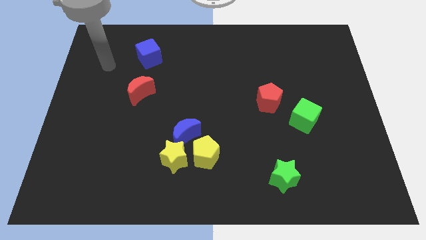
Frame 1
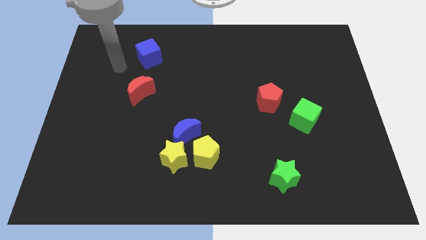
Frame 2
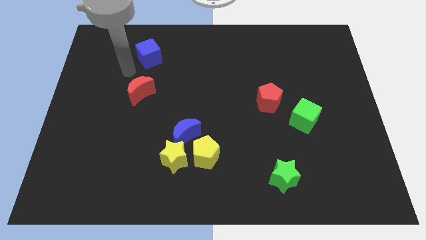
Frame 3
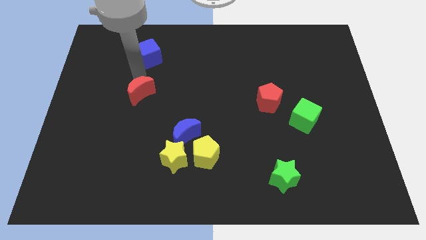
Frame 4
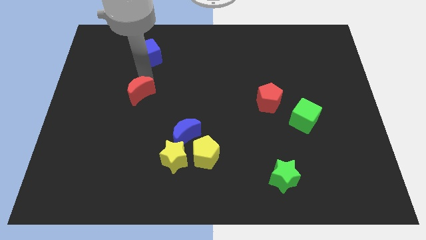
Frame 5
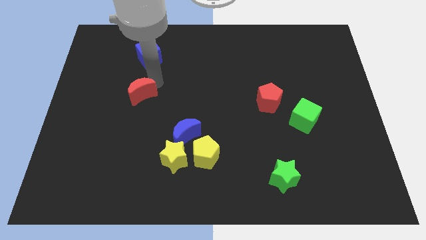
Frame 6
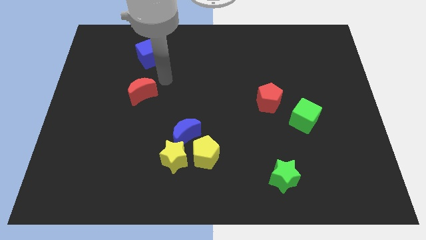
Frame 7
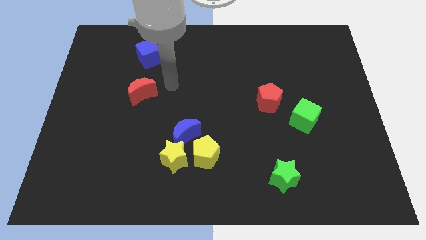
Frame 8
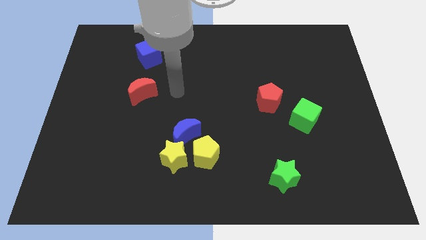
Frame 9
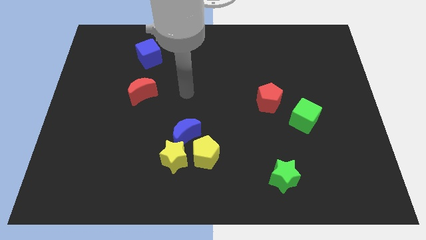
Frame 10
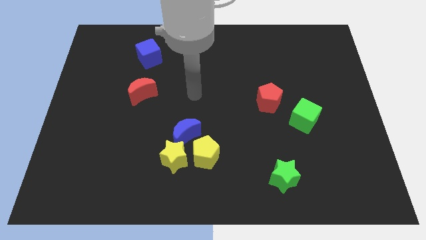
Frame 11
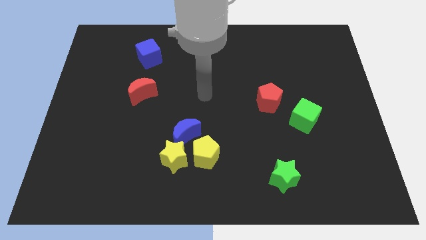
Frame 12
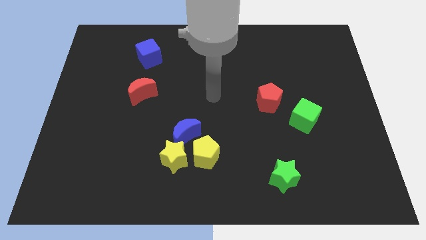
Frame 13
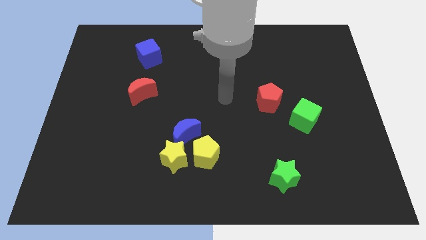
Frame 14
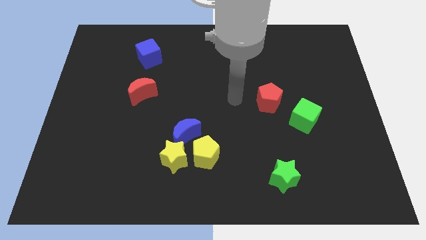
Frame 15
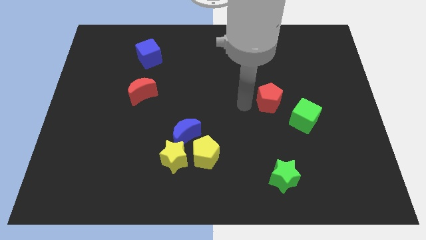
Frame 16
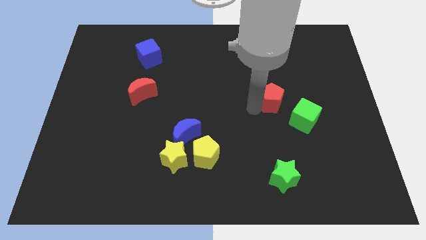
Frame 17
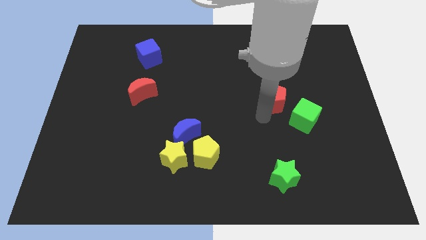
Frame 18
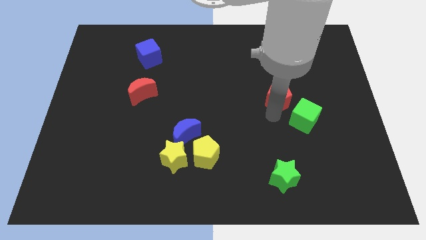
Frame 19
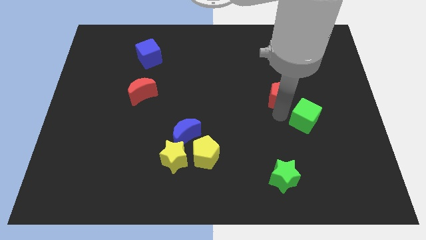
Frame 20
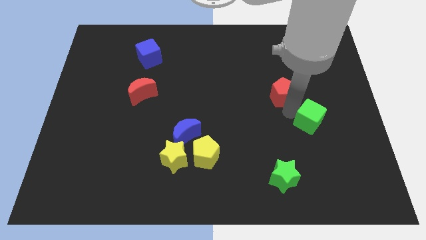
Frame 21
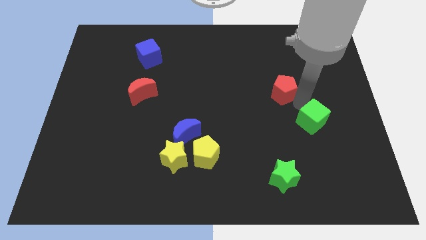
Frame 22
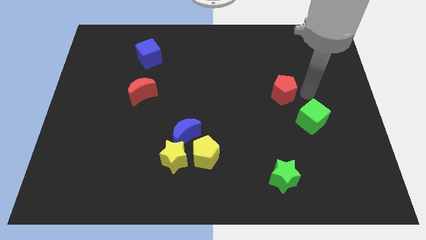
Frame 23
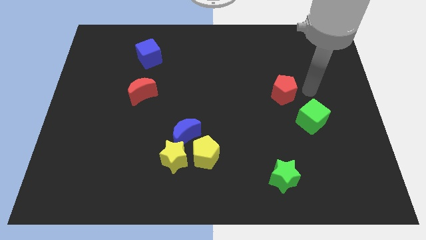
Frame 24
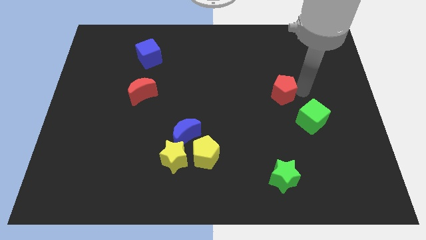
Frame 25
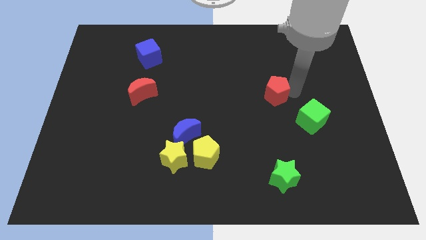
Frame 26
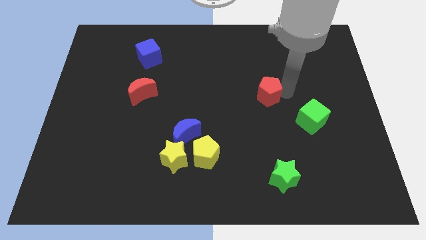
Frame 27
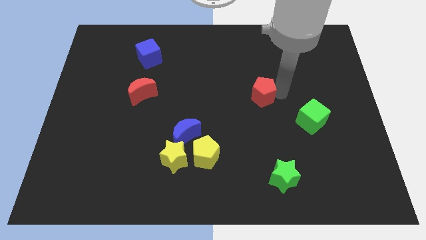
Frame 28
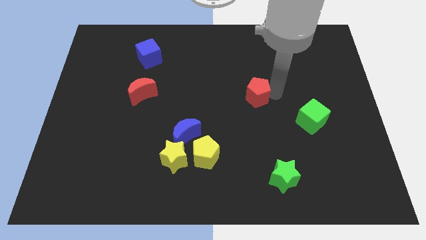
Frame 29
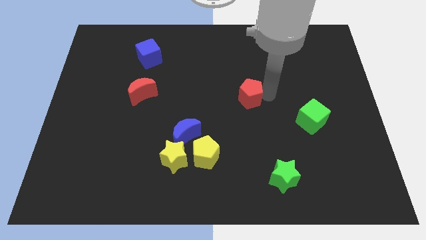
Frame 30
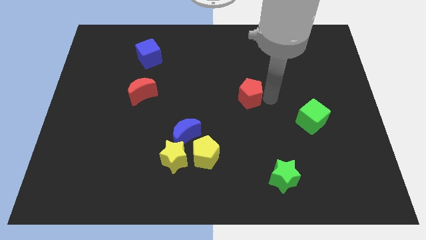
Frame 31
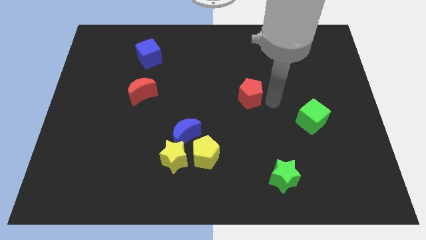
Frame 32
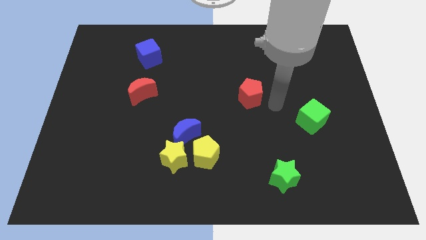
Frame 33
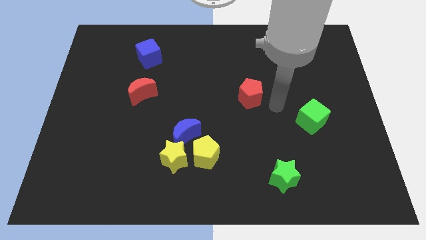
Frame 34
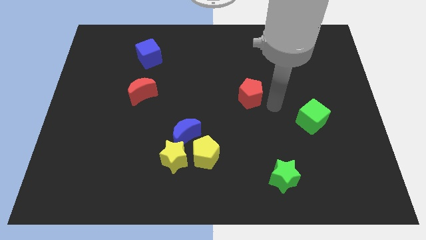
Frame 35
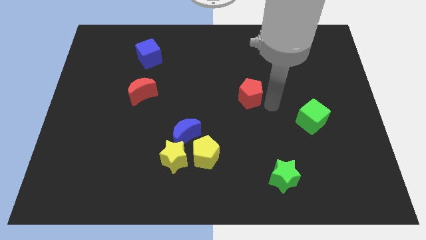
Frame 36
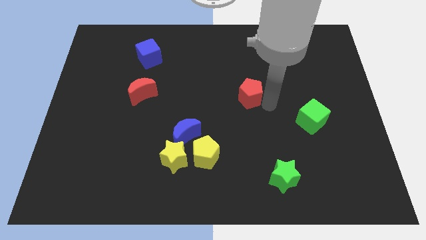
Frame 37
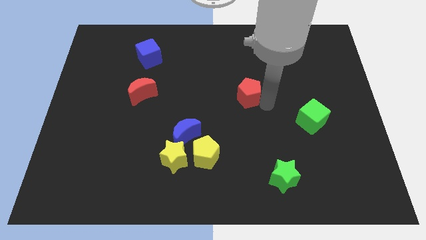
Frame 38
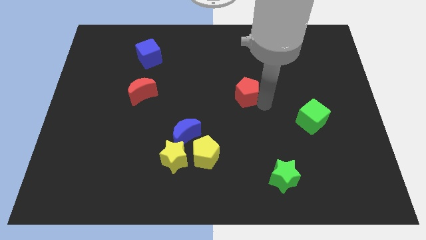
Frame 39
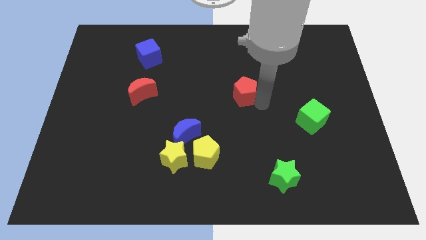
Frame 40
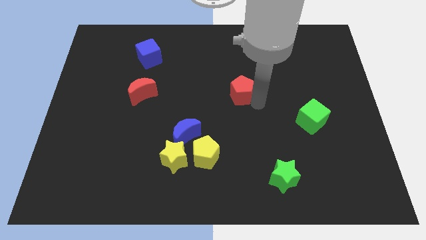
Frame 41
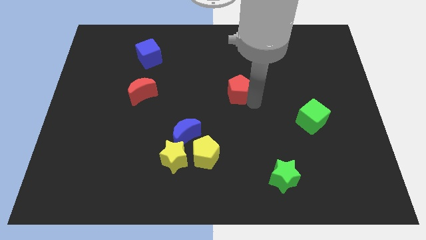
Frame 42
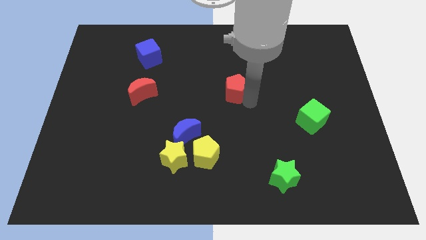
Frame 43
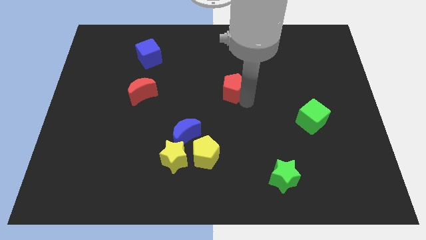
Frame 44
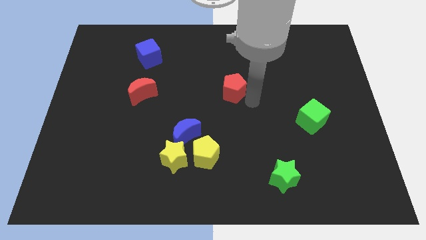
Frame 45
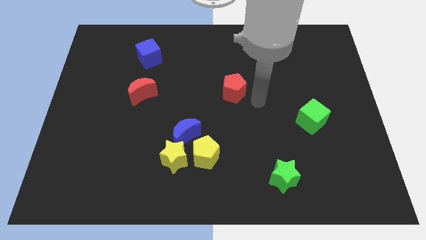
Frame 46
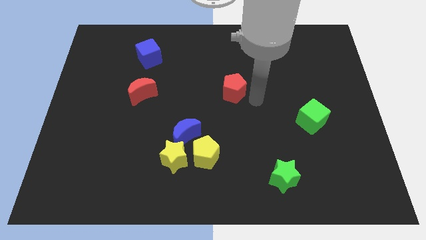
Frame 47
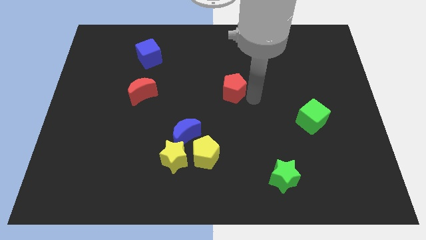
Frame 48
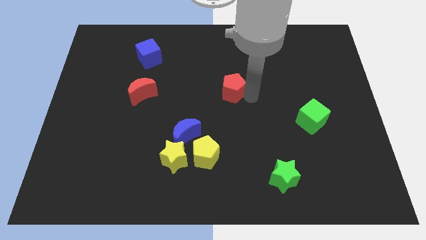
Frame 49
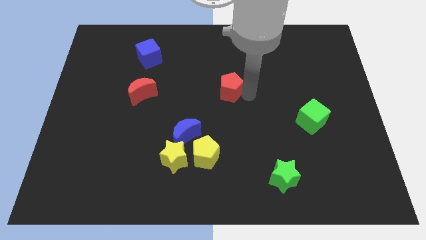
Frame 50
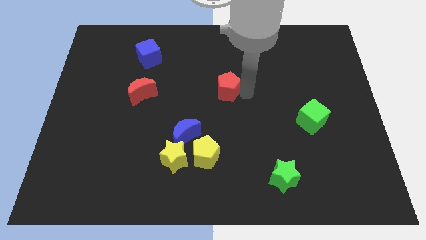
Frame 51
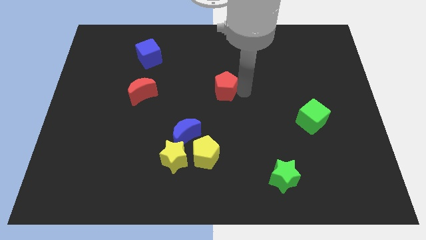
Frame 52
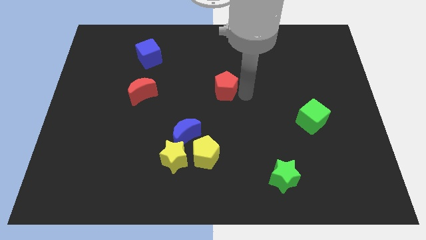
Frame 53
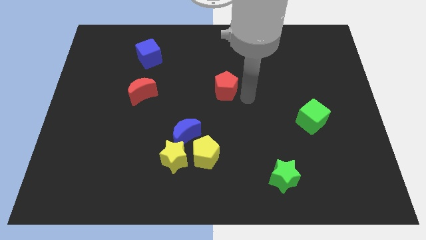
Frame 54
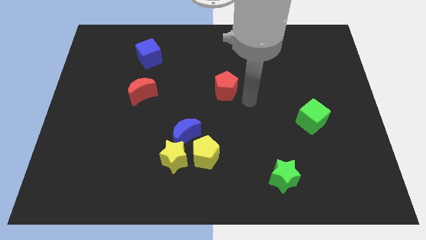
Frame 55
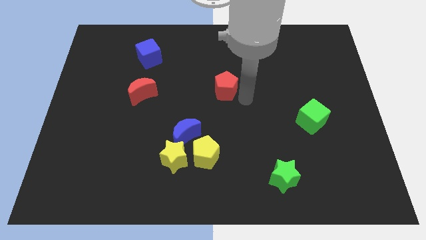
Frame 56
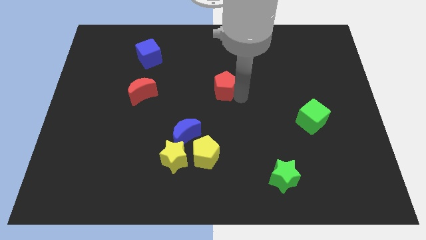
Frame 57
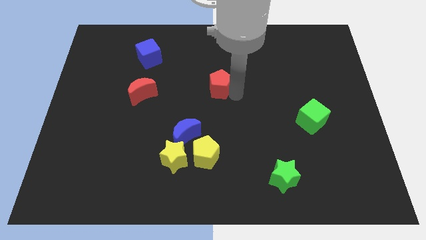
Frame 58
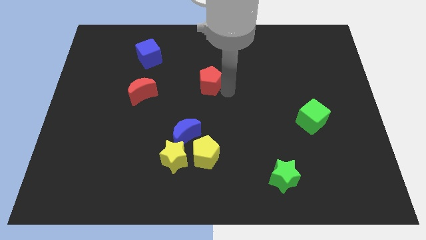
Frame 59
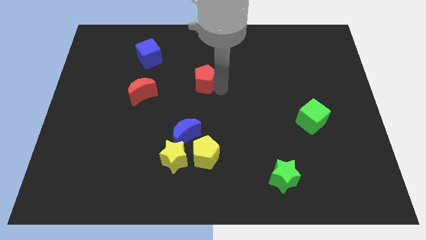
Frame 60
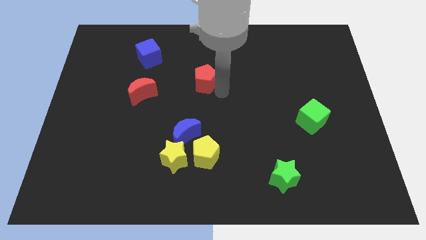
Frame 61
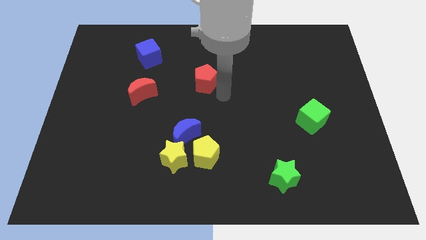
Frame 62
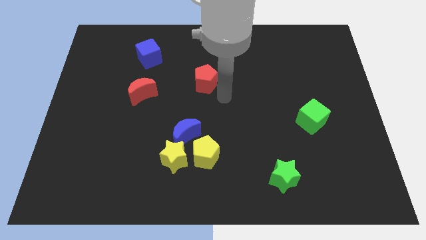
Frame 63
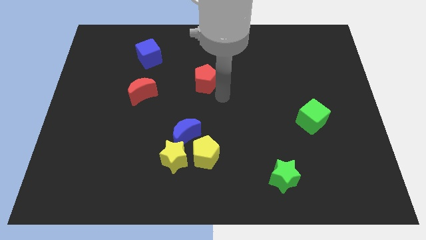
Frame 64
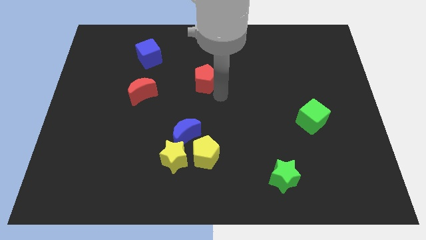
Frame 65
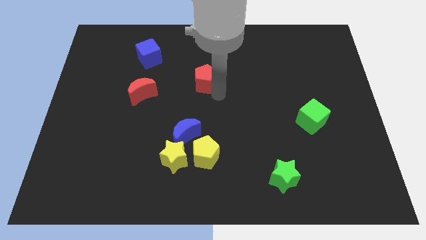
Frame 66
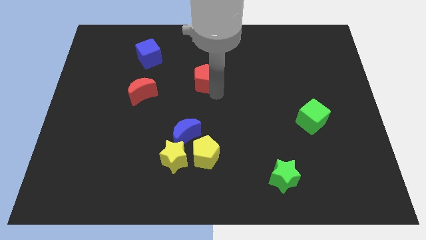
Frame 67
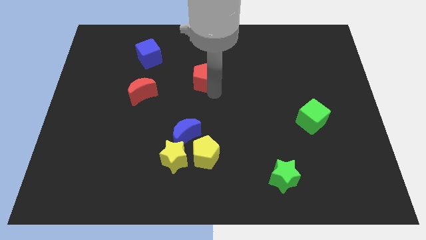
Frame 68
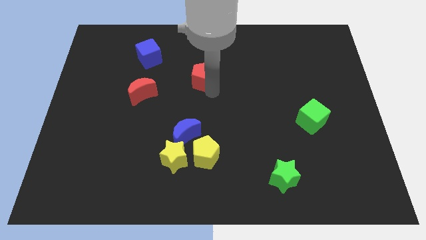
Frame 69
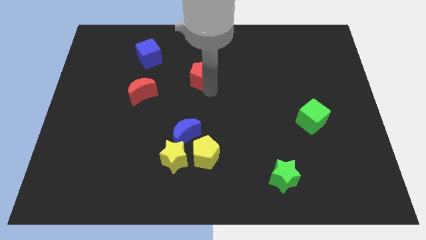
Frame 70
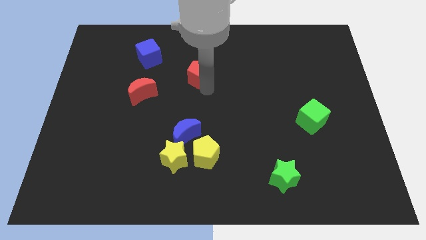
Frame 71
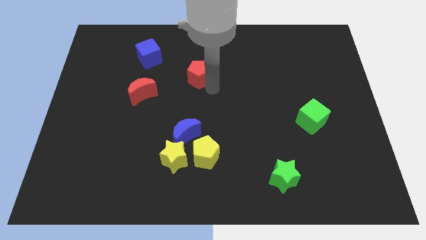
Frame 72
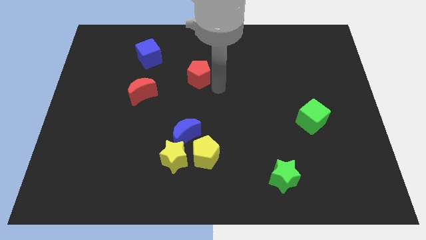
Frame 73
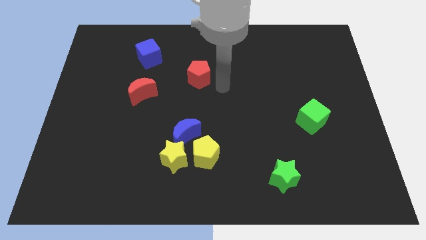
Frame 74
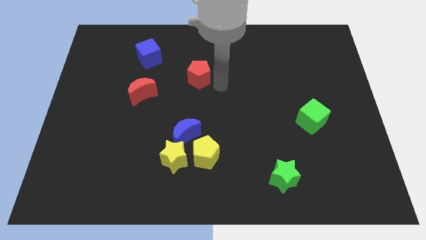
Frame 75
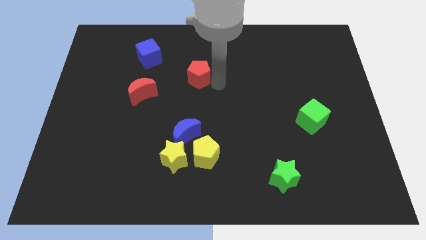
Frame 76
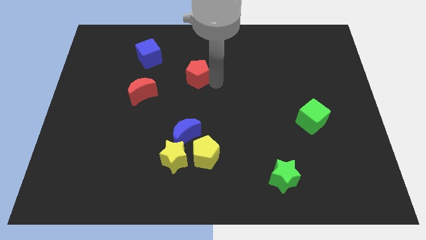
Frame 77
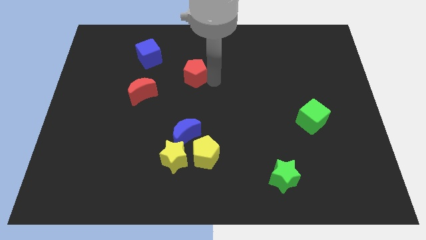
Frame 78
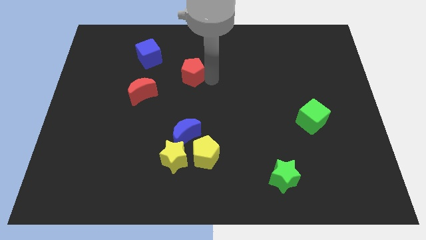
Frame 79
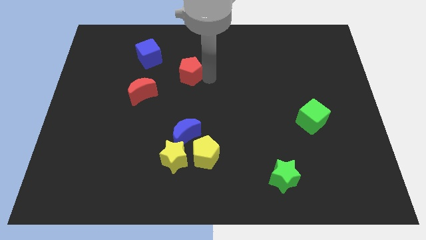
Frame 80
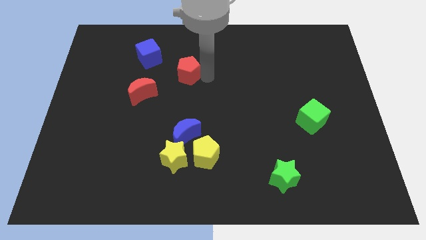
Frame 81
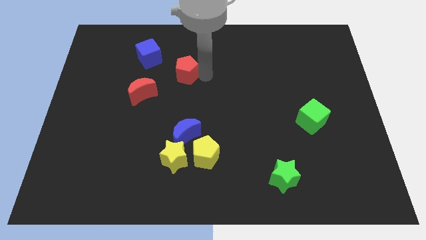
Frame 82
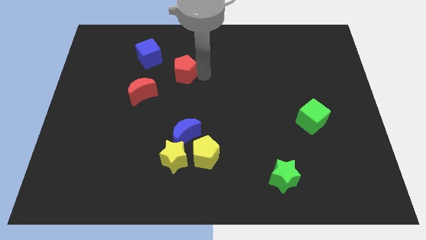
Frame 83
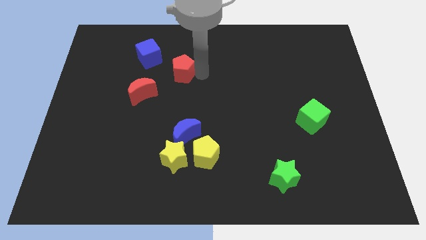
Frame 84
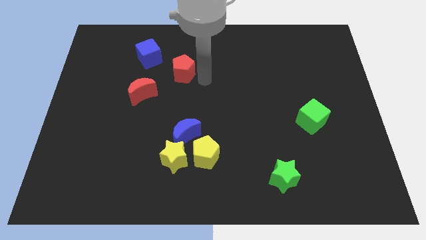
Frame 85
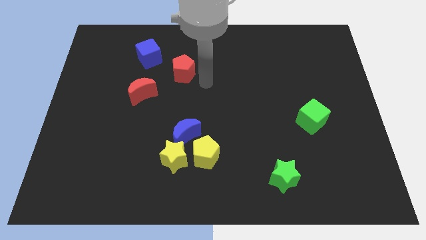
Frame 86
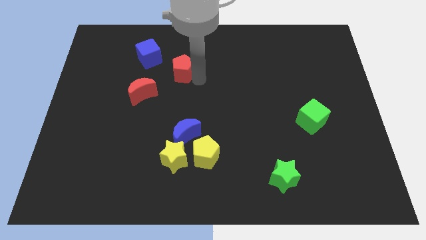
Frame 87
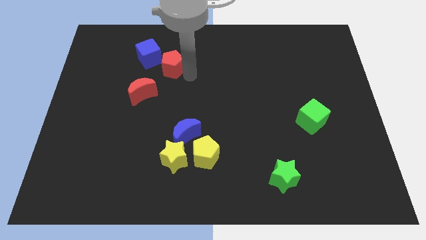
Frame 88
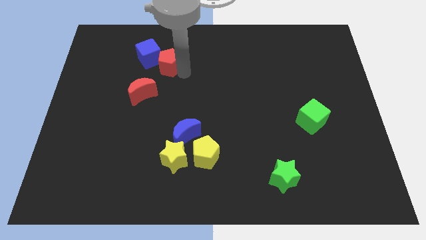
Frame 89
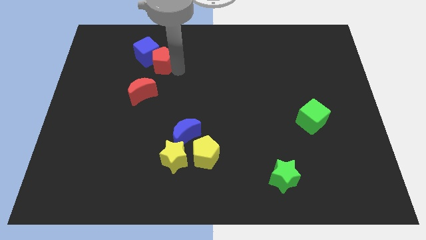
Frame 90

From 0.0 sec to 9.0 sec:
push the red pentagon next to the blue cube
